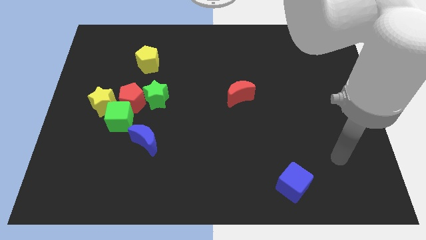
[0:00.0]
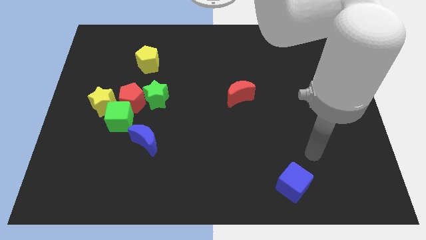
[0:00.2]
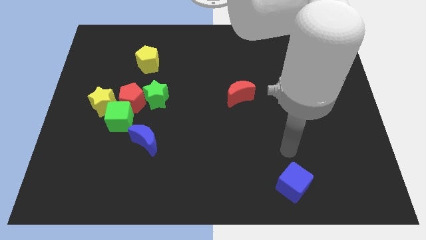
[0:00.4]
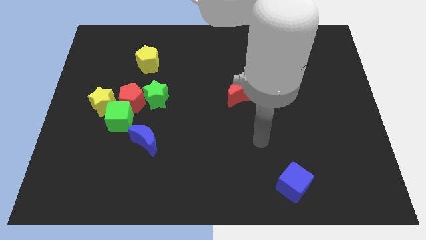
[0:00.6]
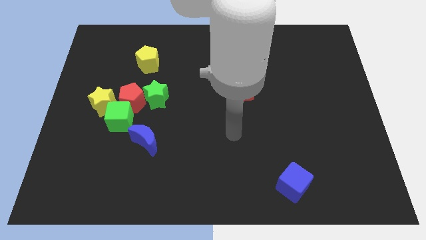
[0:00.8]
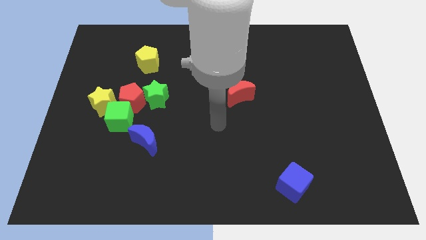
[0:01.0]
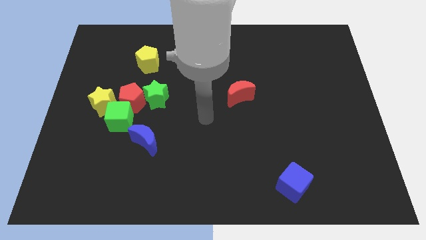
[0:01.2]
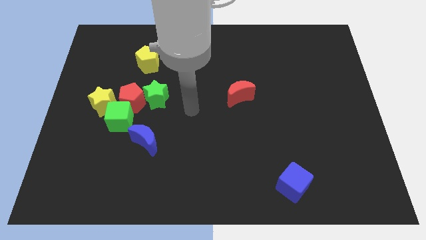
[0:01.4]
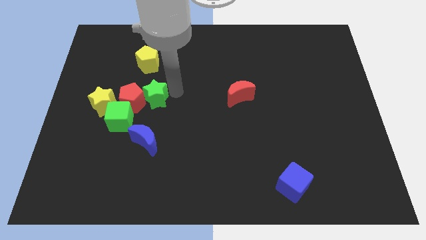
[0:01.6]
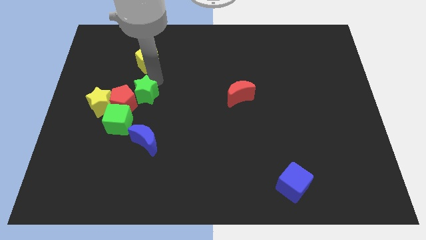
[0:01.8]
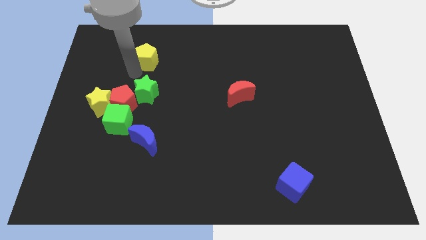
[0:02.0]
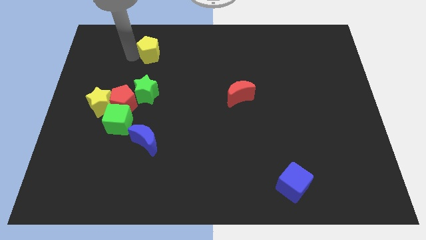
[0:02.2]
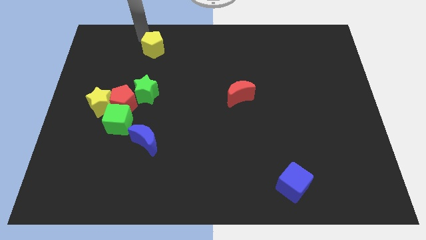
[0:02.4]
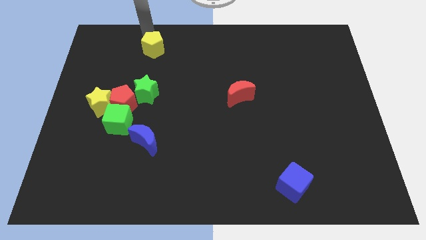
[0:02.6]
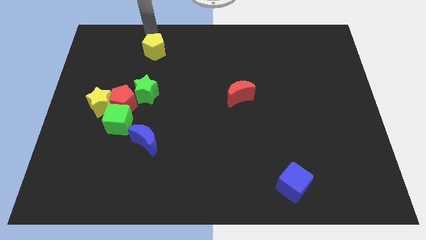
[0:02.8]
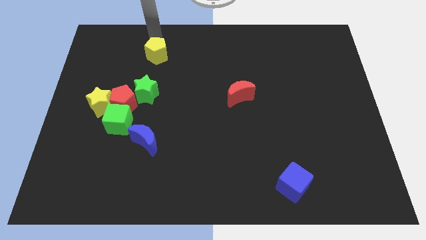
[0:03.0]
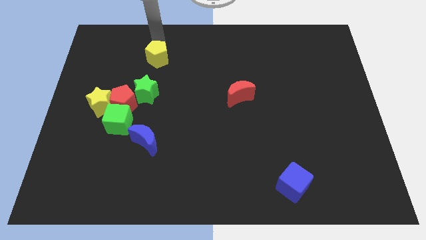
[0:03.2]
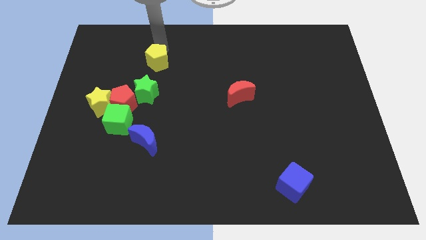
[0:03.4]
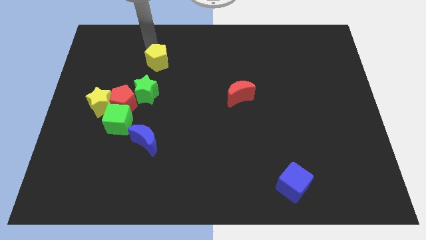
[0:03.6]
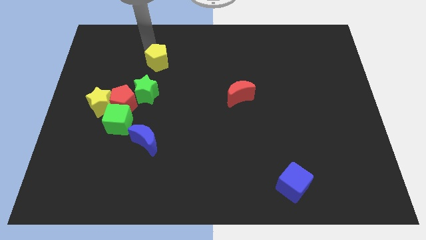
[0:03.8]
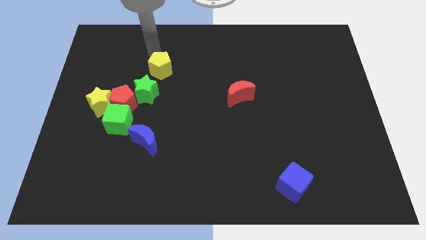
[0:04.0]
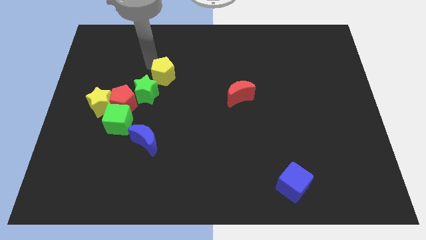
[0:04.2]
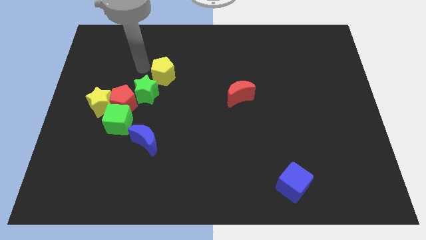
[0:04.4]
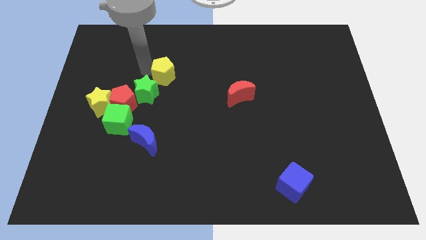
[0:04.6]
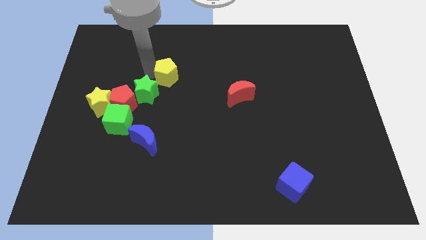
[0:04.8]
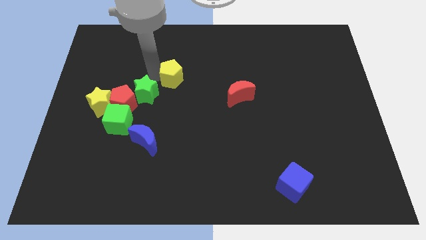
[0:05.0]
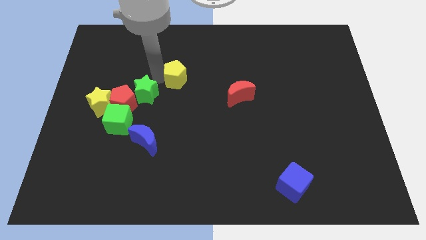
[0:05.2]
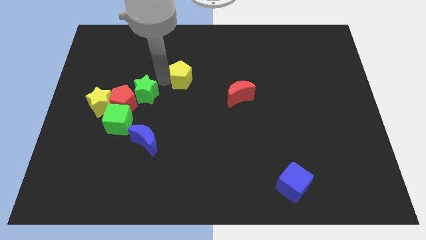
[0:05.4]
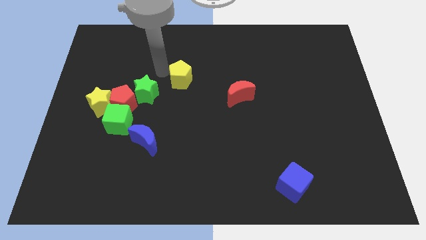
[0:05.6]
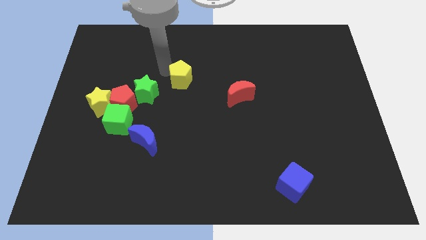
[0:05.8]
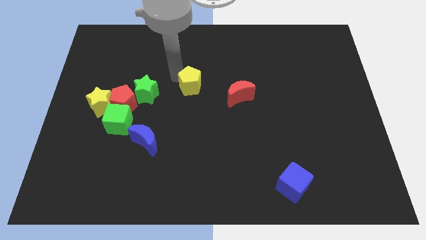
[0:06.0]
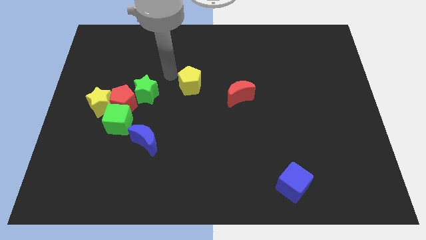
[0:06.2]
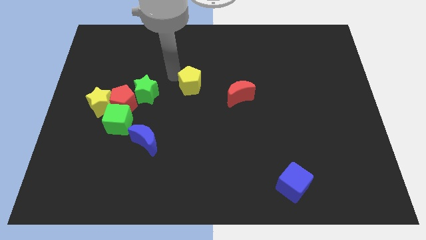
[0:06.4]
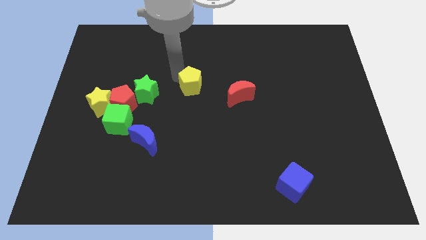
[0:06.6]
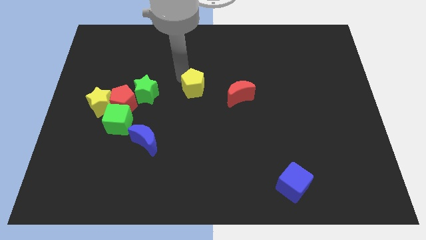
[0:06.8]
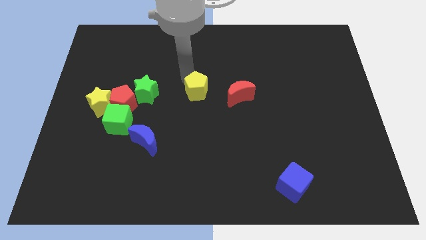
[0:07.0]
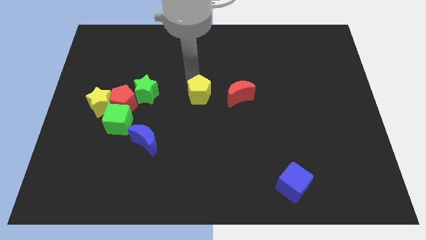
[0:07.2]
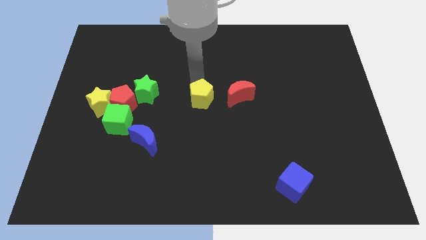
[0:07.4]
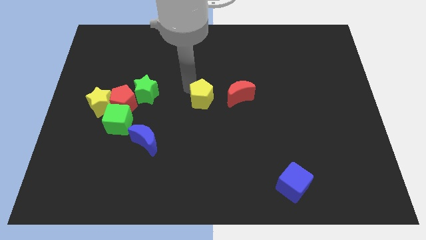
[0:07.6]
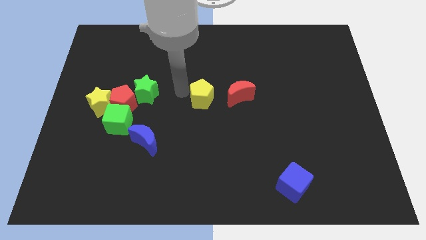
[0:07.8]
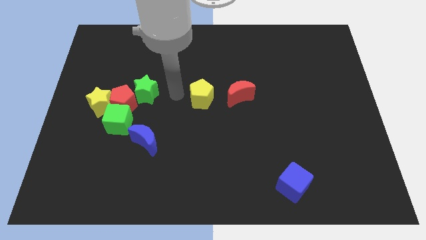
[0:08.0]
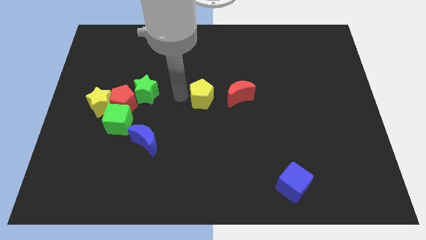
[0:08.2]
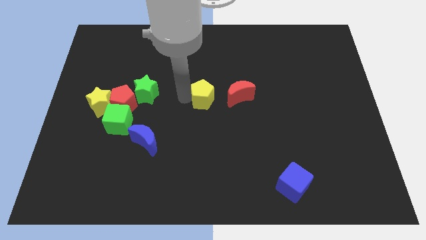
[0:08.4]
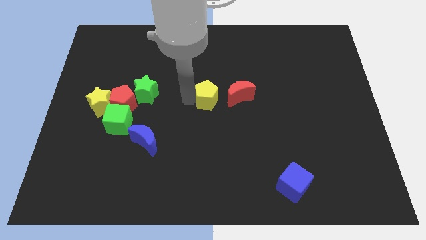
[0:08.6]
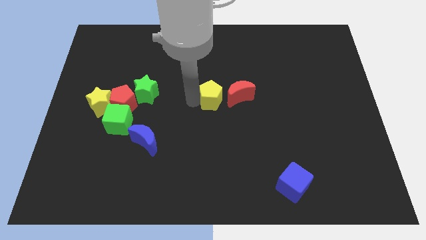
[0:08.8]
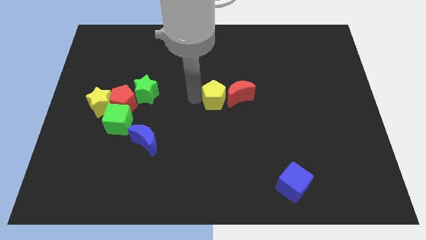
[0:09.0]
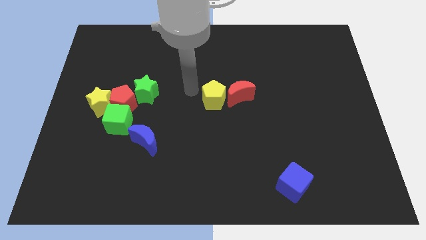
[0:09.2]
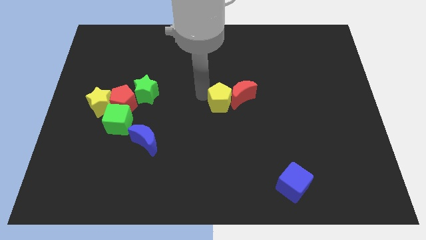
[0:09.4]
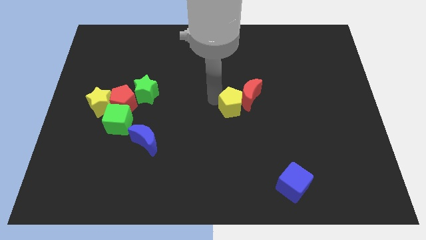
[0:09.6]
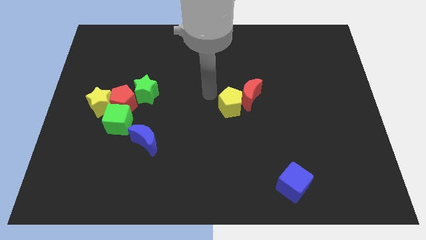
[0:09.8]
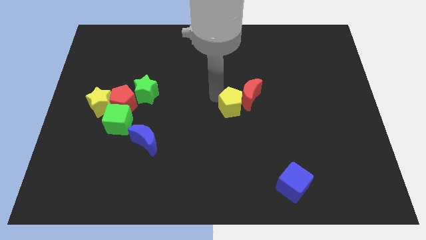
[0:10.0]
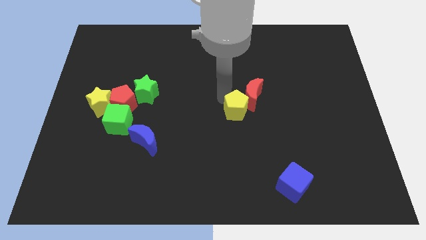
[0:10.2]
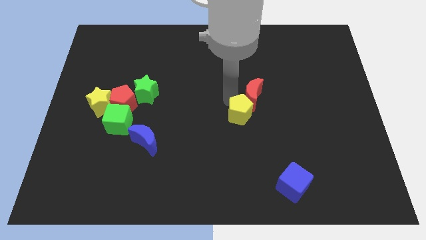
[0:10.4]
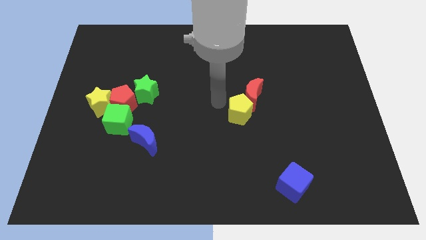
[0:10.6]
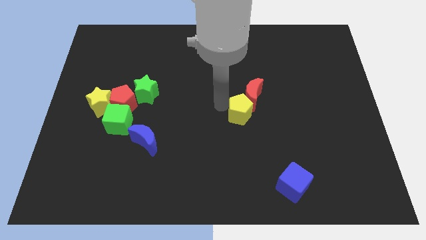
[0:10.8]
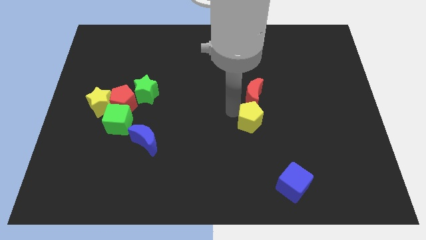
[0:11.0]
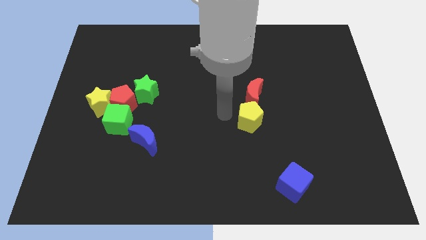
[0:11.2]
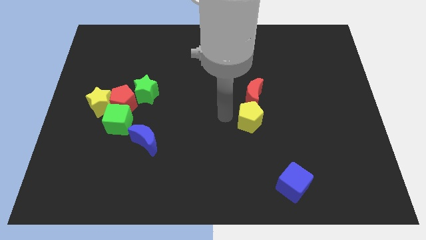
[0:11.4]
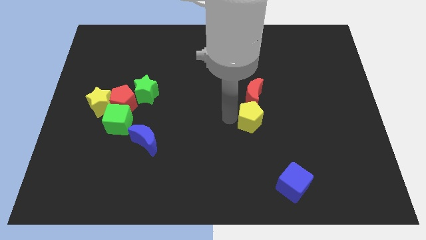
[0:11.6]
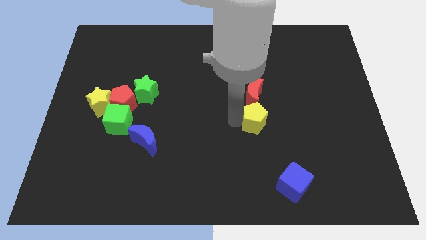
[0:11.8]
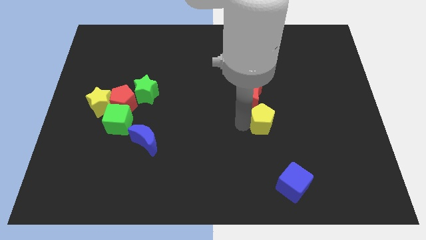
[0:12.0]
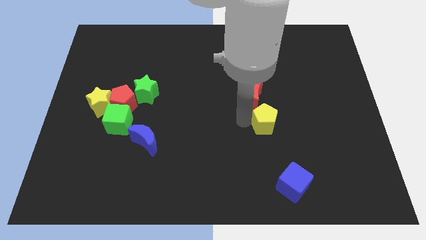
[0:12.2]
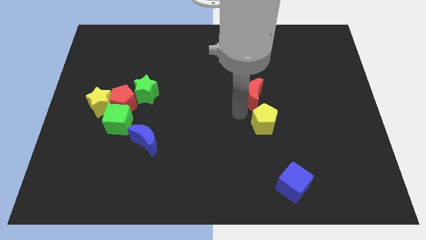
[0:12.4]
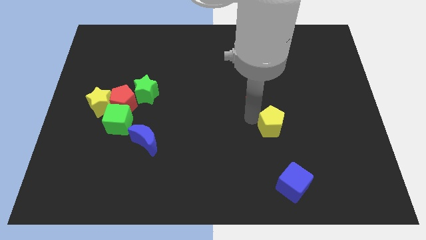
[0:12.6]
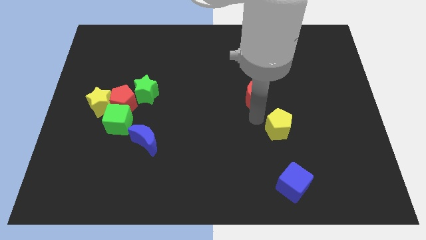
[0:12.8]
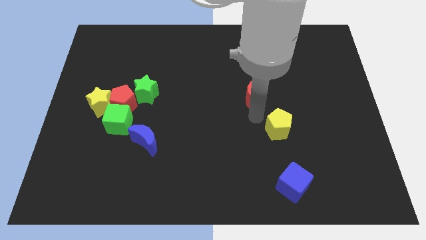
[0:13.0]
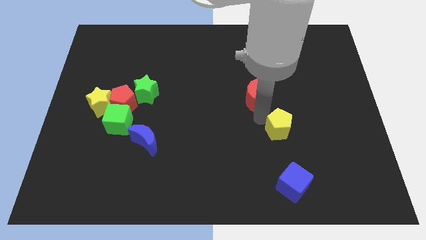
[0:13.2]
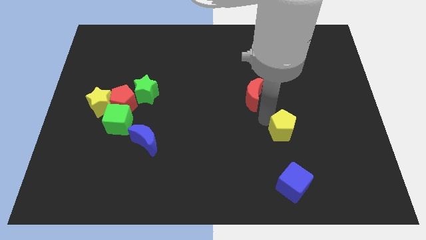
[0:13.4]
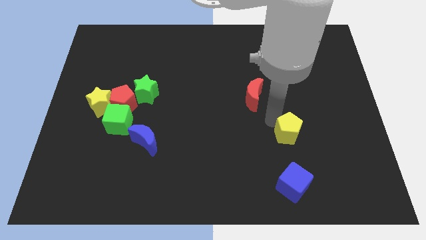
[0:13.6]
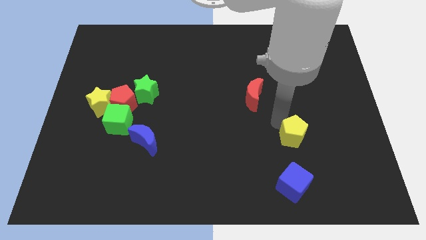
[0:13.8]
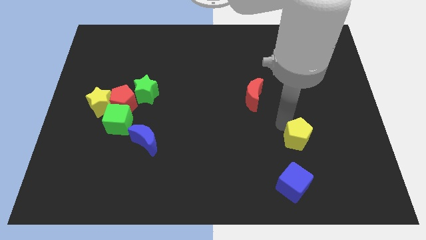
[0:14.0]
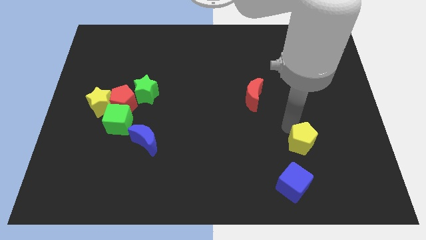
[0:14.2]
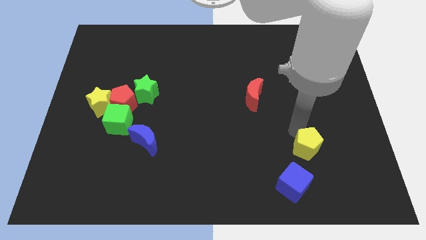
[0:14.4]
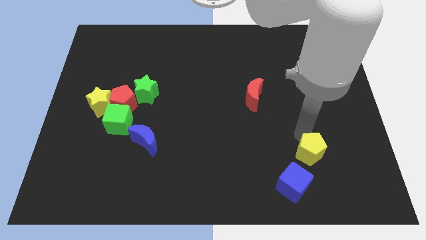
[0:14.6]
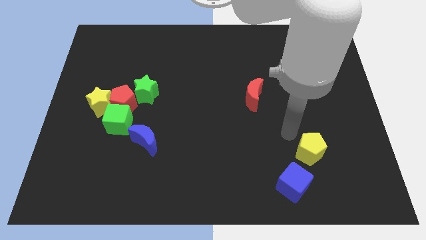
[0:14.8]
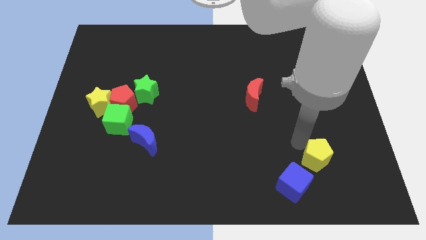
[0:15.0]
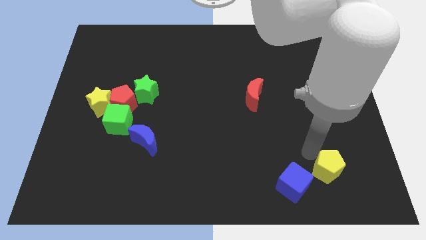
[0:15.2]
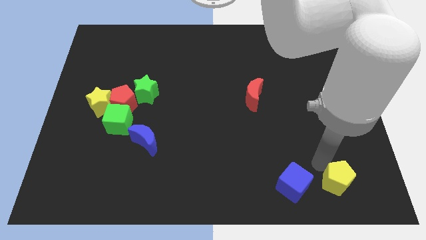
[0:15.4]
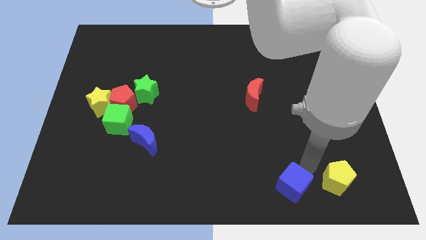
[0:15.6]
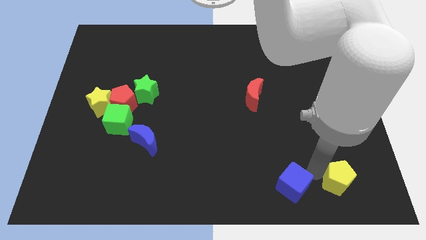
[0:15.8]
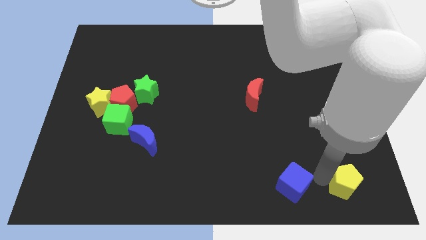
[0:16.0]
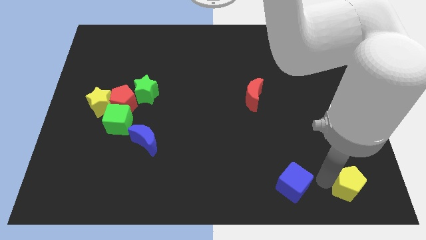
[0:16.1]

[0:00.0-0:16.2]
slide the yellow pentagon to the lower right corner

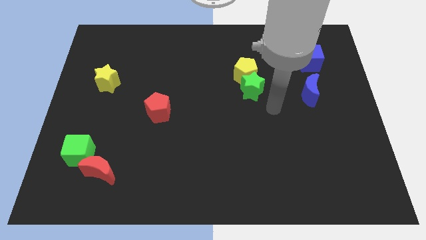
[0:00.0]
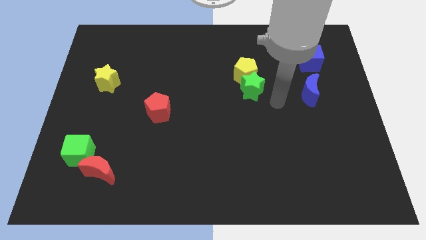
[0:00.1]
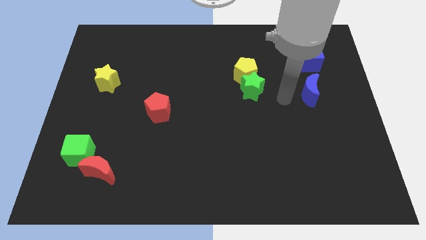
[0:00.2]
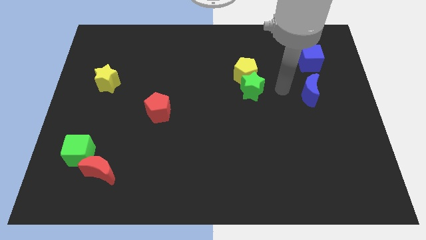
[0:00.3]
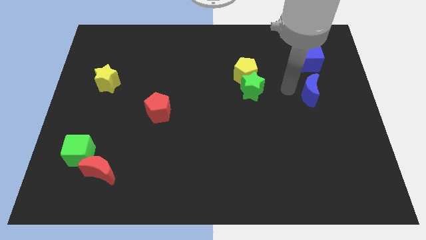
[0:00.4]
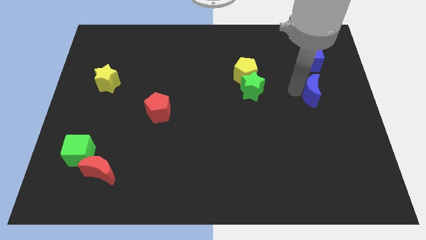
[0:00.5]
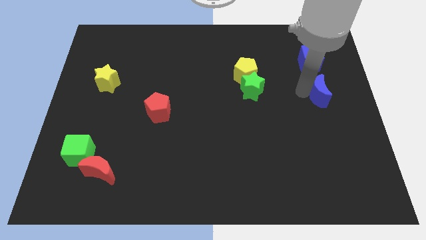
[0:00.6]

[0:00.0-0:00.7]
put the blue moon to the right side
